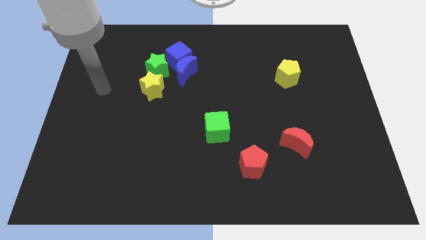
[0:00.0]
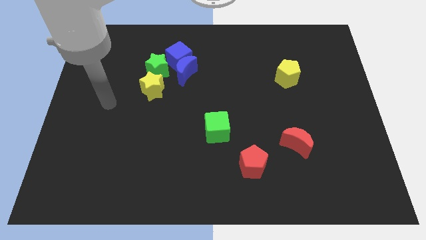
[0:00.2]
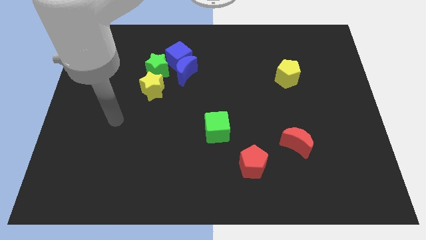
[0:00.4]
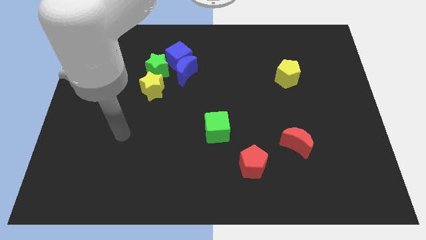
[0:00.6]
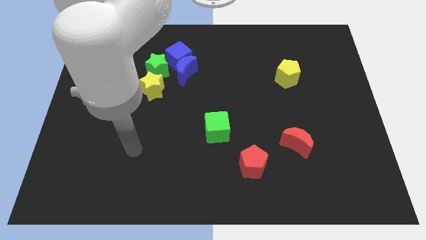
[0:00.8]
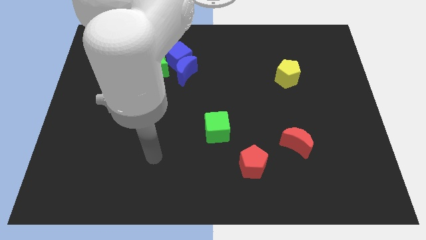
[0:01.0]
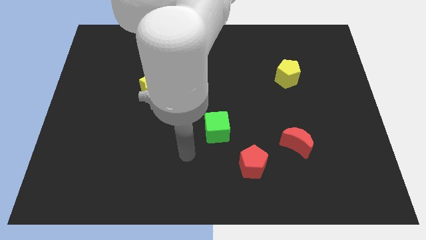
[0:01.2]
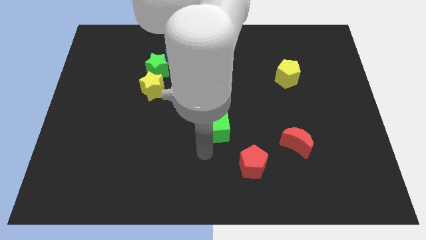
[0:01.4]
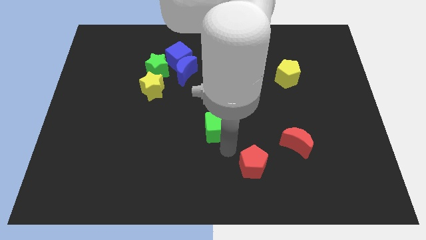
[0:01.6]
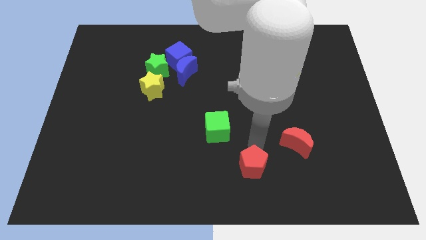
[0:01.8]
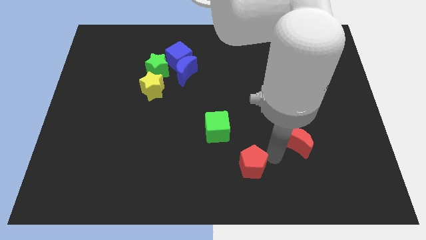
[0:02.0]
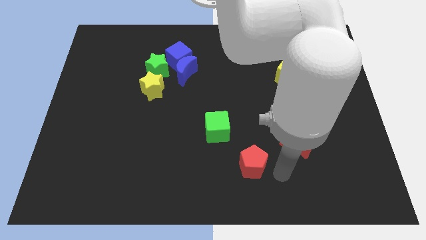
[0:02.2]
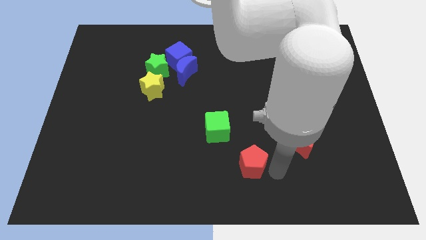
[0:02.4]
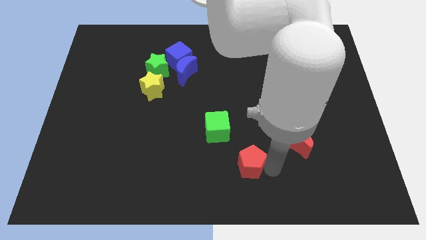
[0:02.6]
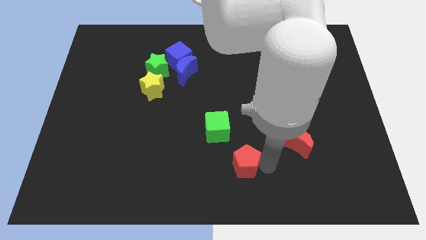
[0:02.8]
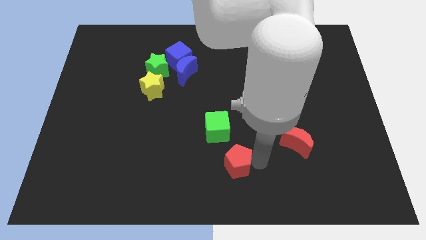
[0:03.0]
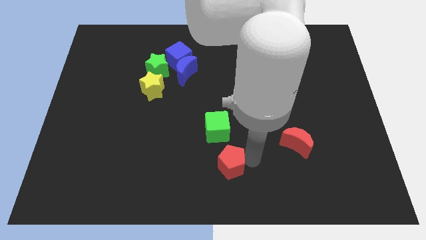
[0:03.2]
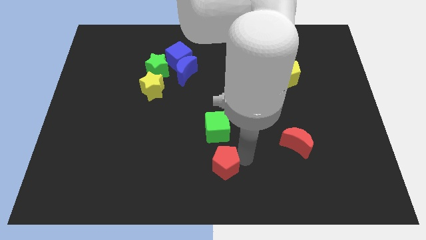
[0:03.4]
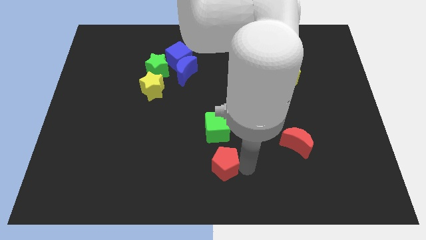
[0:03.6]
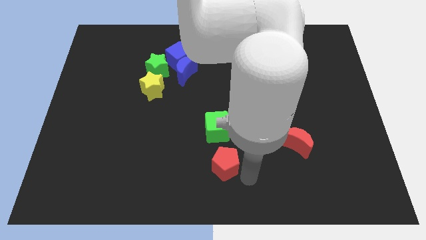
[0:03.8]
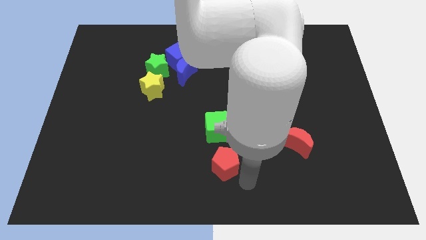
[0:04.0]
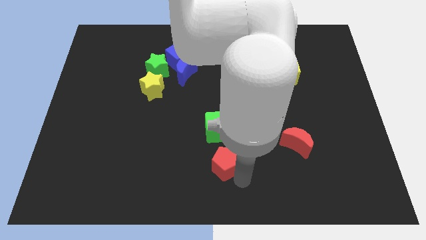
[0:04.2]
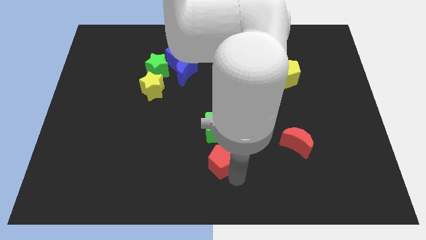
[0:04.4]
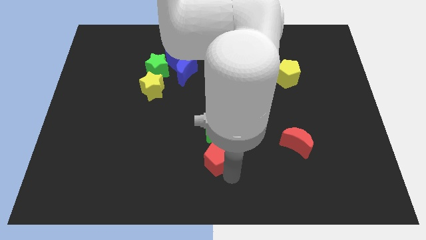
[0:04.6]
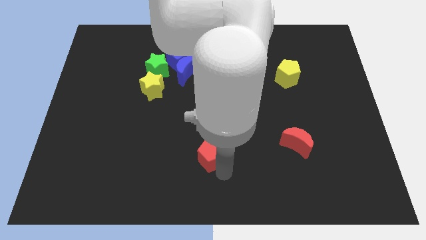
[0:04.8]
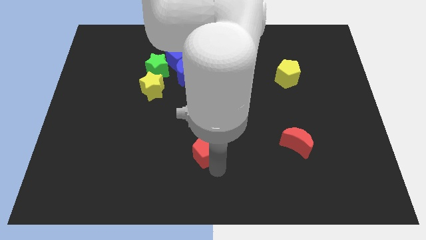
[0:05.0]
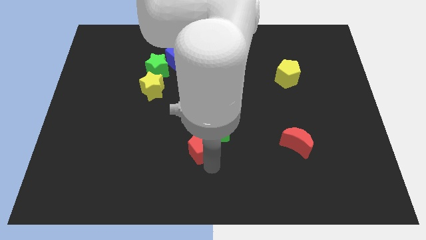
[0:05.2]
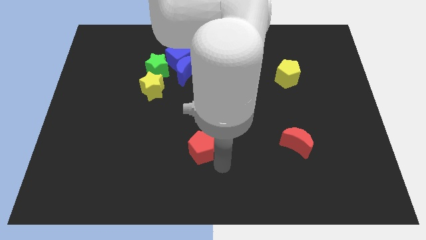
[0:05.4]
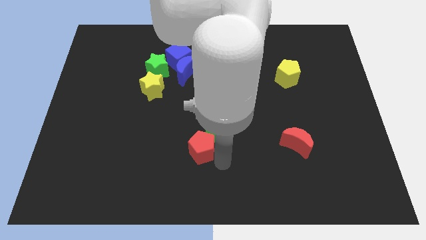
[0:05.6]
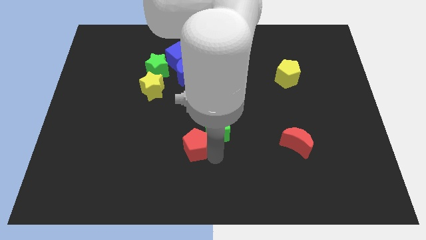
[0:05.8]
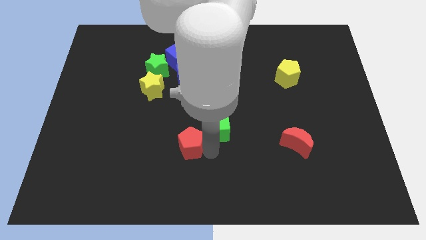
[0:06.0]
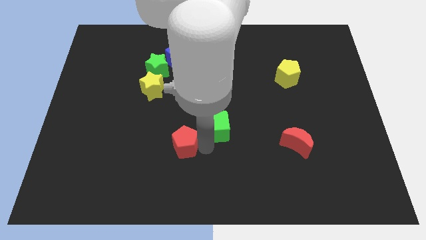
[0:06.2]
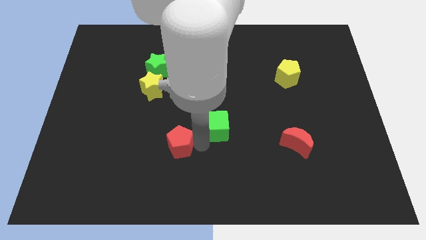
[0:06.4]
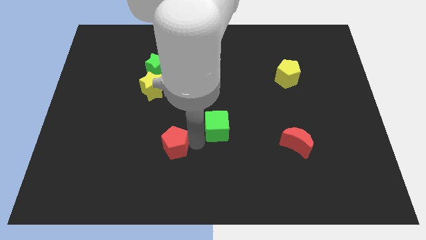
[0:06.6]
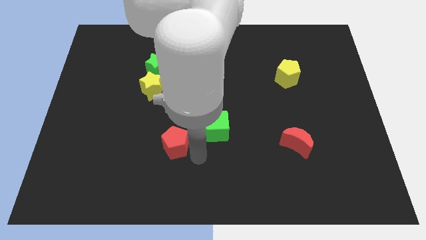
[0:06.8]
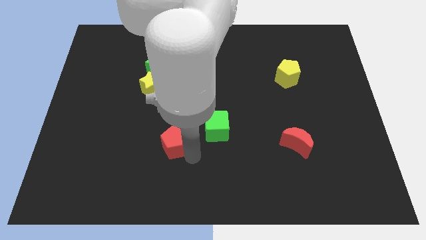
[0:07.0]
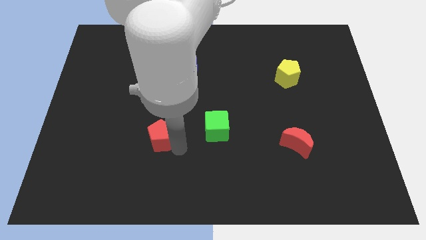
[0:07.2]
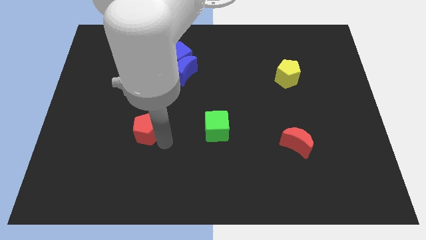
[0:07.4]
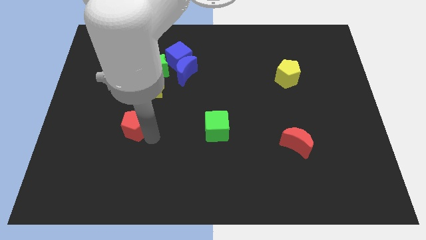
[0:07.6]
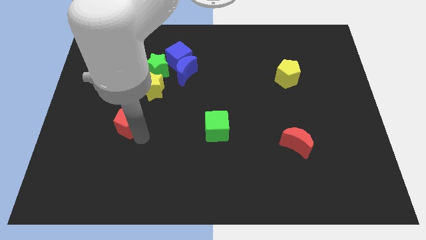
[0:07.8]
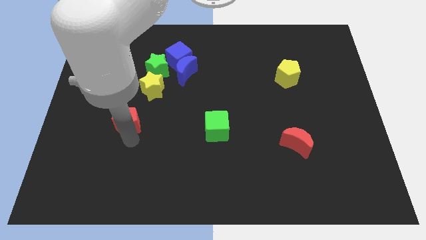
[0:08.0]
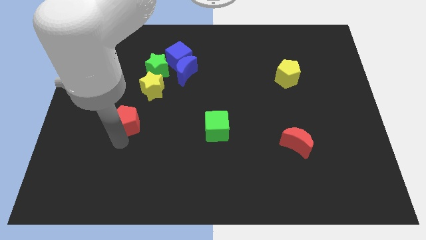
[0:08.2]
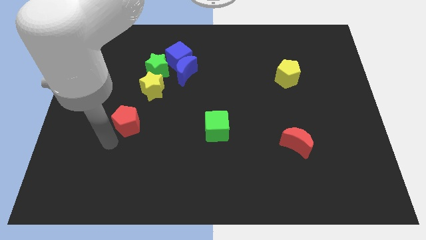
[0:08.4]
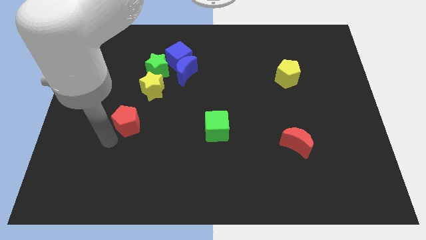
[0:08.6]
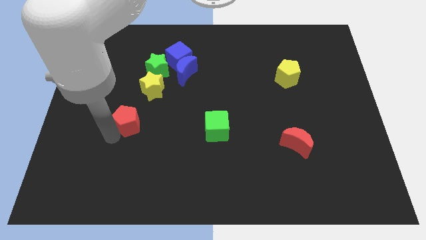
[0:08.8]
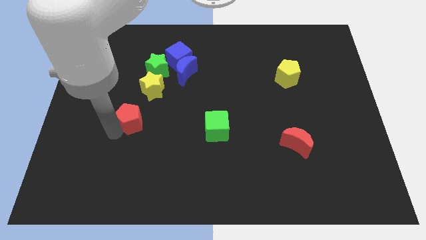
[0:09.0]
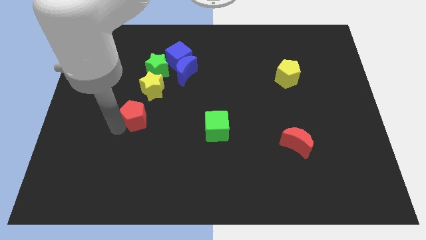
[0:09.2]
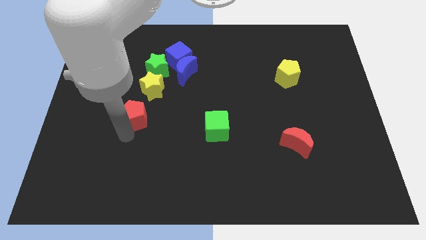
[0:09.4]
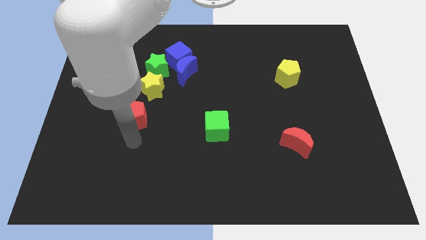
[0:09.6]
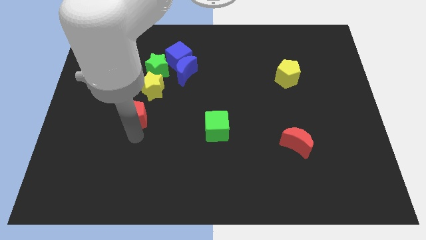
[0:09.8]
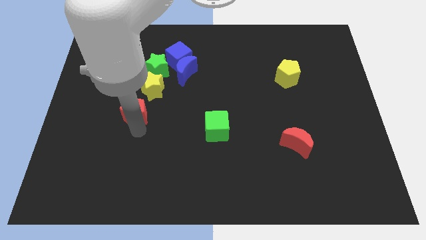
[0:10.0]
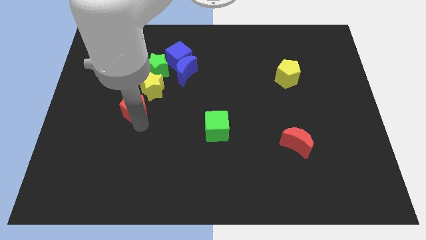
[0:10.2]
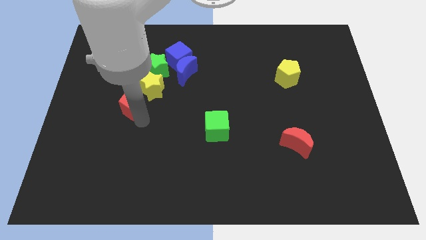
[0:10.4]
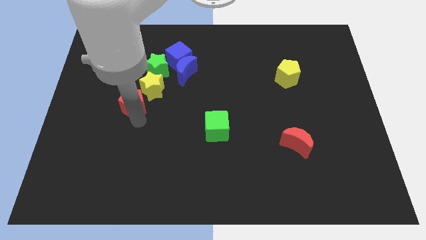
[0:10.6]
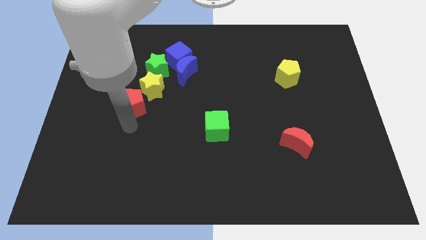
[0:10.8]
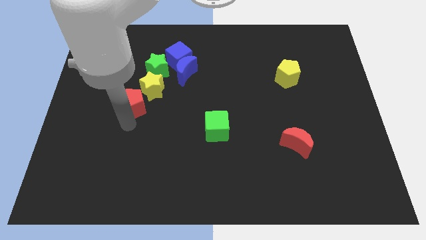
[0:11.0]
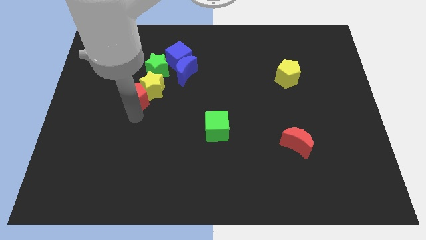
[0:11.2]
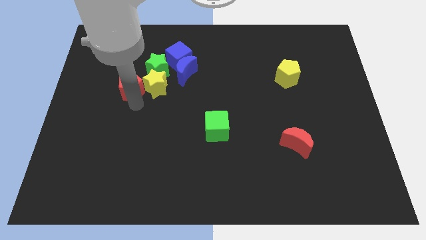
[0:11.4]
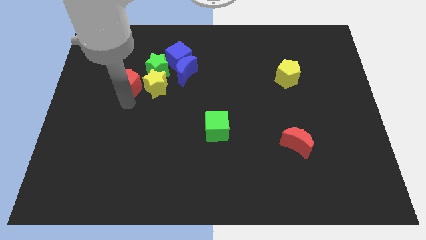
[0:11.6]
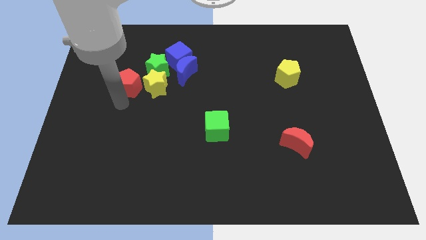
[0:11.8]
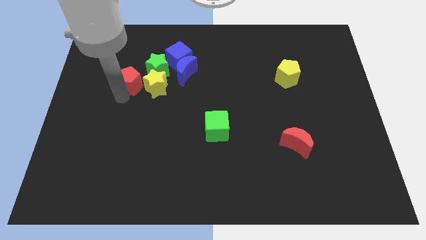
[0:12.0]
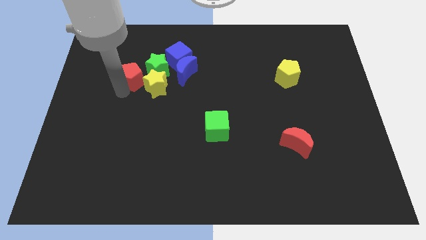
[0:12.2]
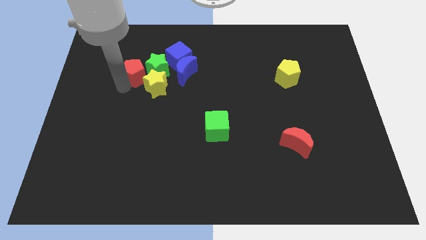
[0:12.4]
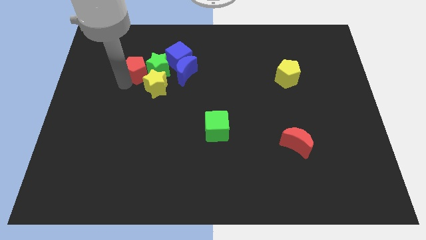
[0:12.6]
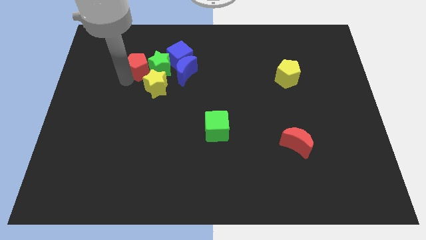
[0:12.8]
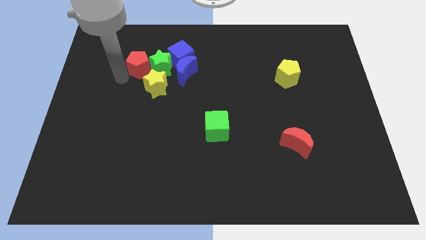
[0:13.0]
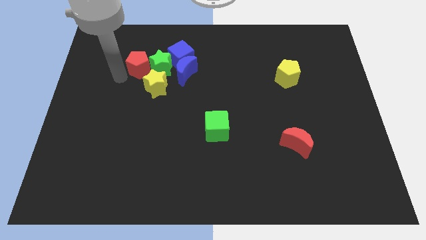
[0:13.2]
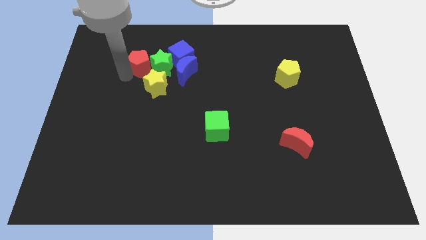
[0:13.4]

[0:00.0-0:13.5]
slide the red pentagon above the yellow star
